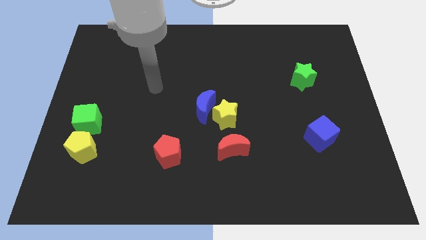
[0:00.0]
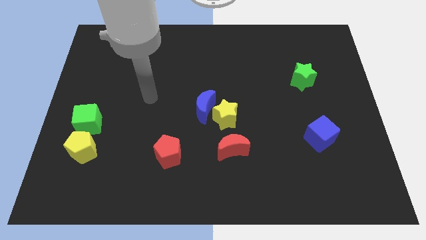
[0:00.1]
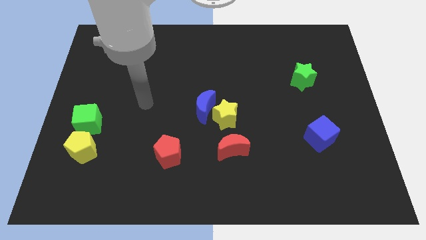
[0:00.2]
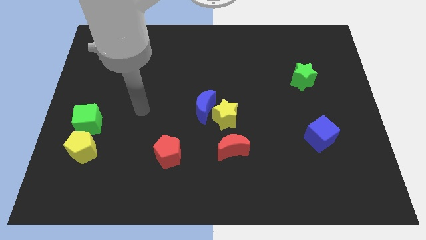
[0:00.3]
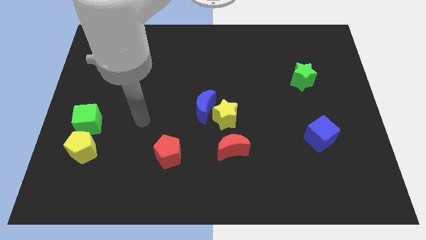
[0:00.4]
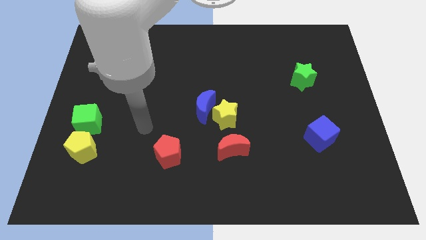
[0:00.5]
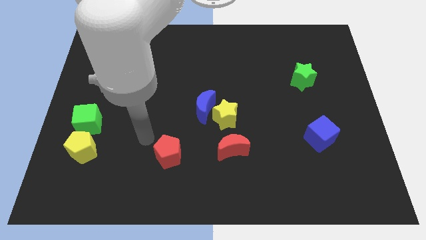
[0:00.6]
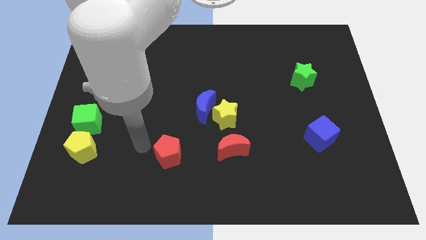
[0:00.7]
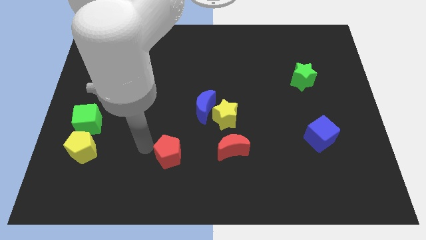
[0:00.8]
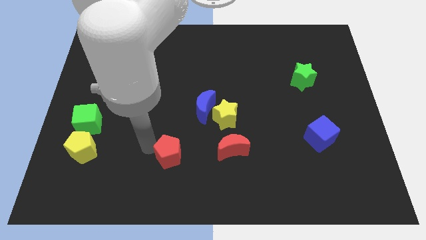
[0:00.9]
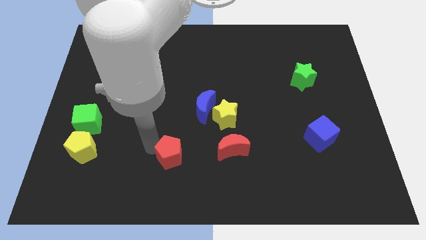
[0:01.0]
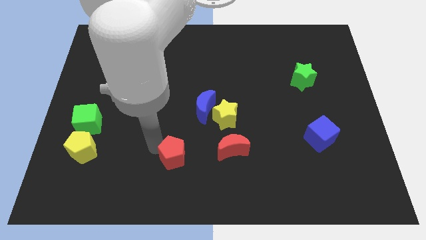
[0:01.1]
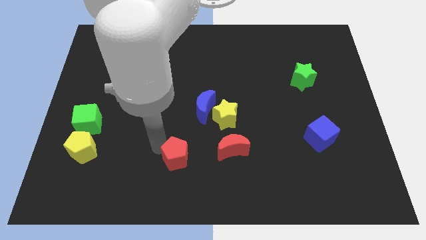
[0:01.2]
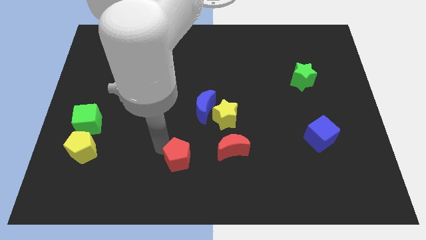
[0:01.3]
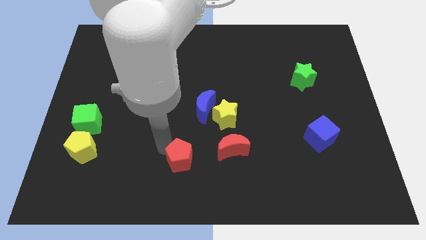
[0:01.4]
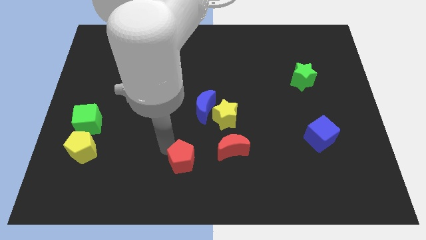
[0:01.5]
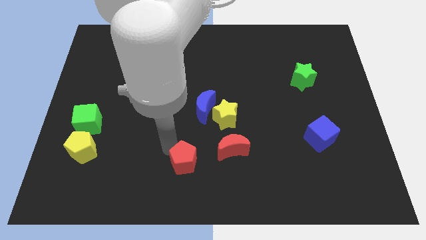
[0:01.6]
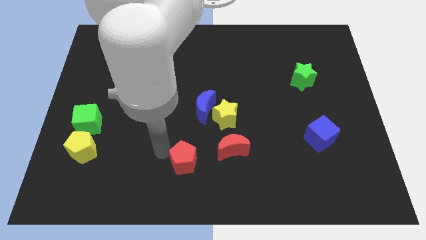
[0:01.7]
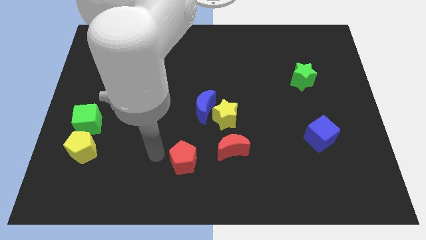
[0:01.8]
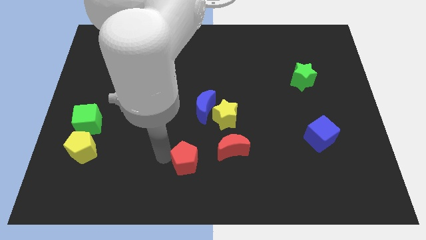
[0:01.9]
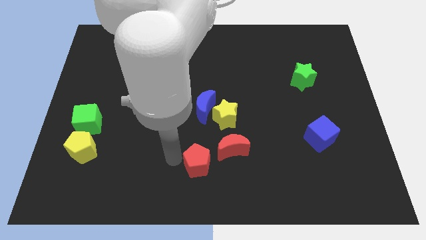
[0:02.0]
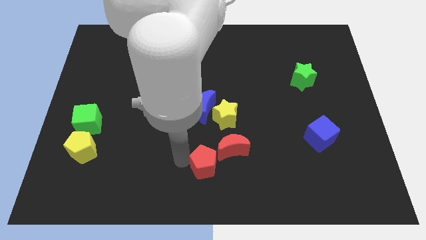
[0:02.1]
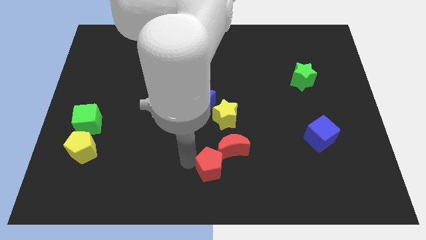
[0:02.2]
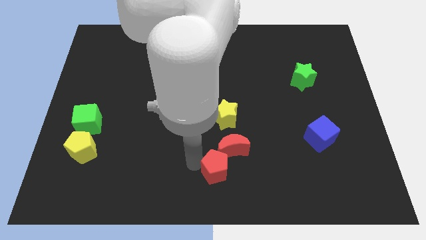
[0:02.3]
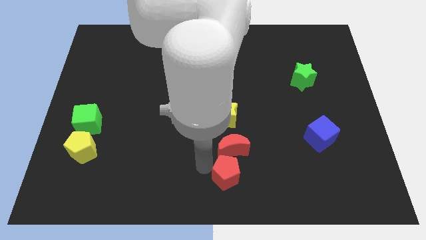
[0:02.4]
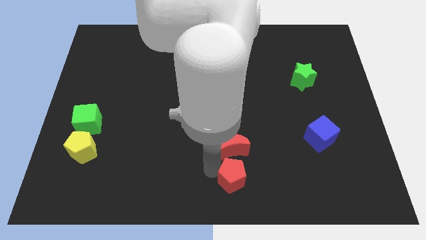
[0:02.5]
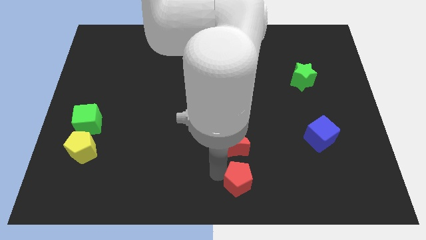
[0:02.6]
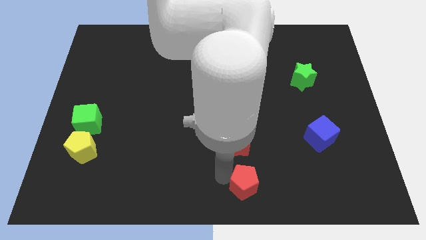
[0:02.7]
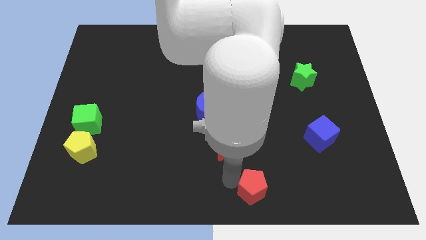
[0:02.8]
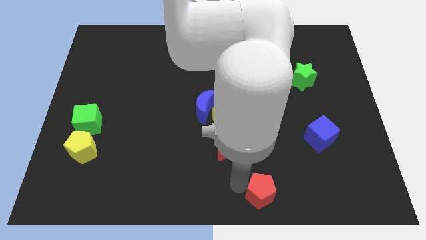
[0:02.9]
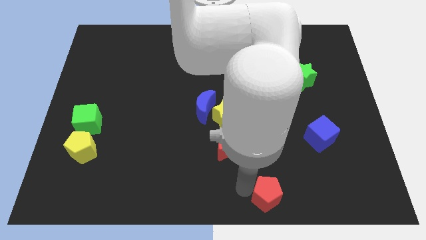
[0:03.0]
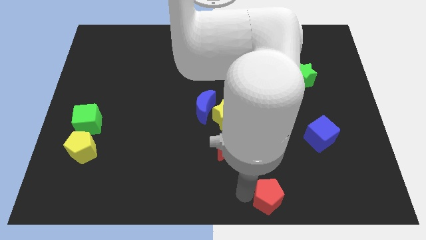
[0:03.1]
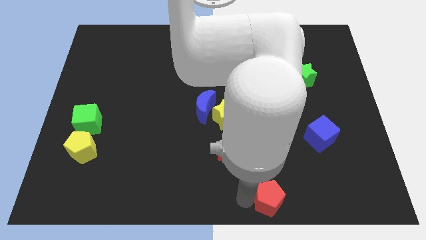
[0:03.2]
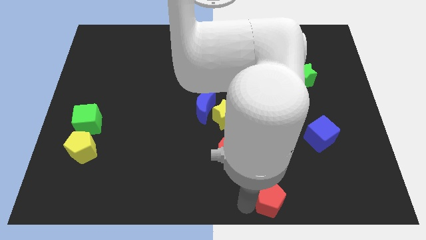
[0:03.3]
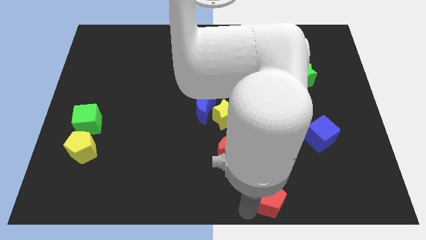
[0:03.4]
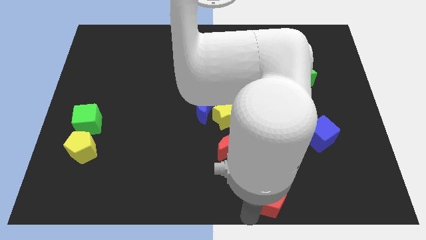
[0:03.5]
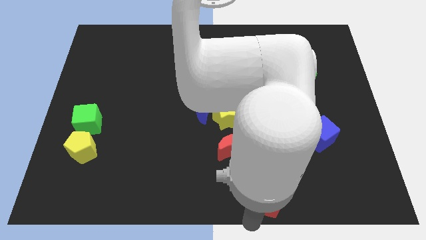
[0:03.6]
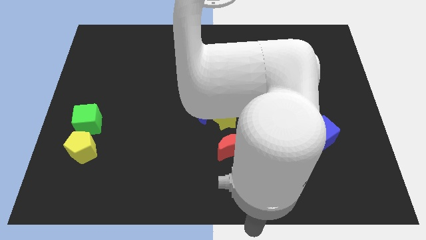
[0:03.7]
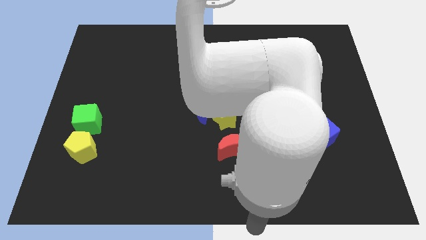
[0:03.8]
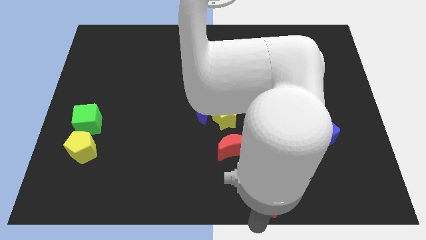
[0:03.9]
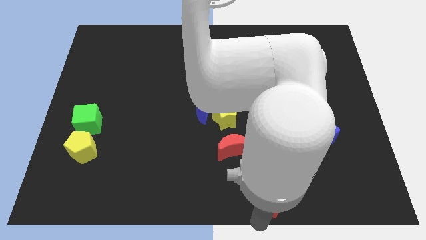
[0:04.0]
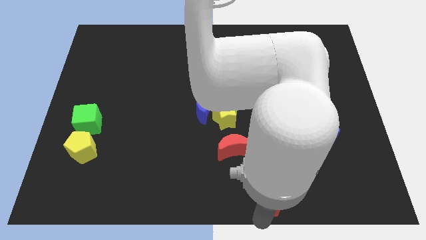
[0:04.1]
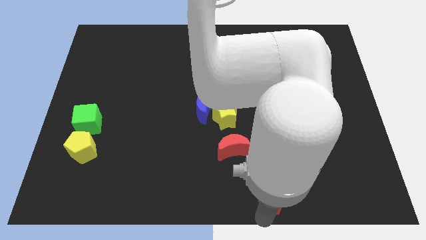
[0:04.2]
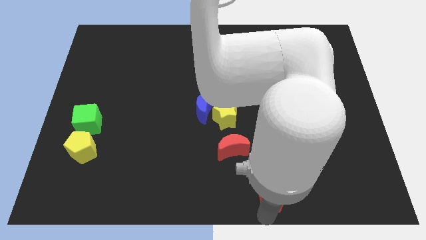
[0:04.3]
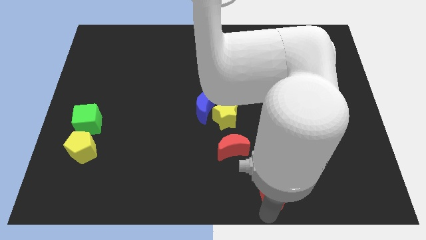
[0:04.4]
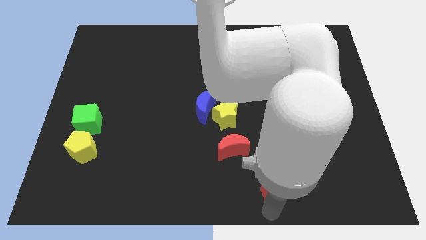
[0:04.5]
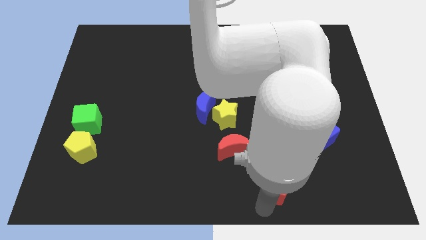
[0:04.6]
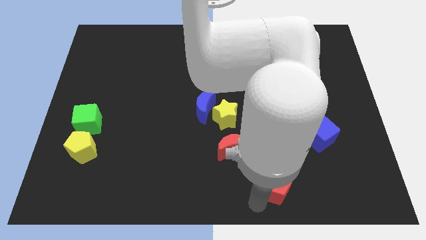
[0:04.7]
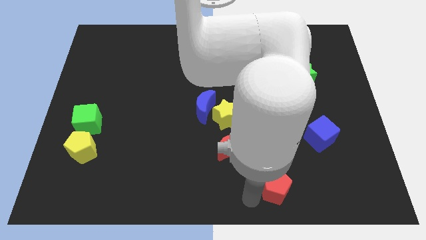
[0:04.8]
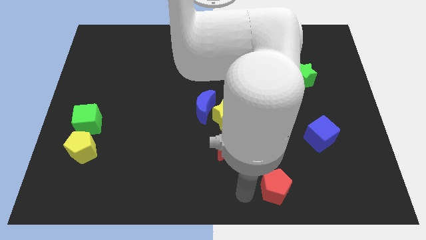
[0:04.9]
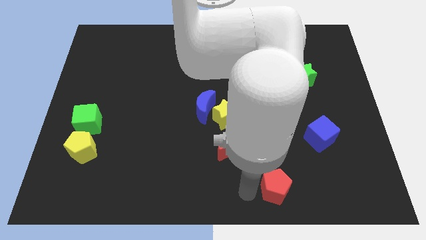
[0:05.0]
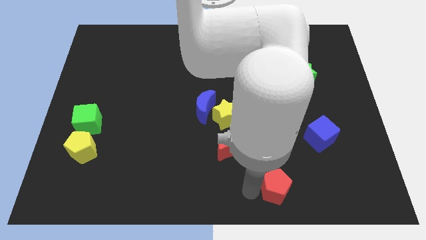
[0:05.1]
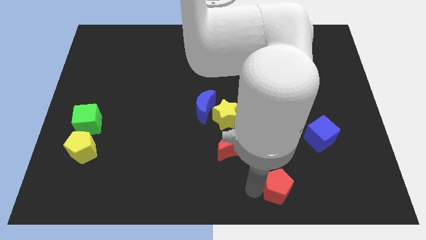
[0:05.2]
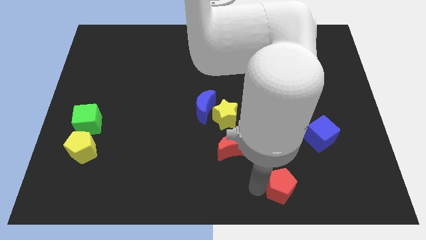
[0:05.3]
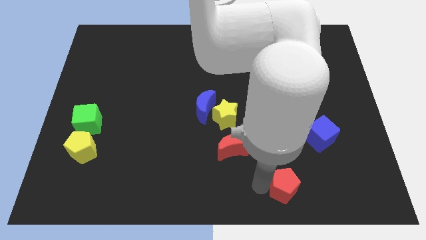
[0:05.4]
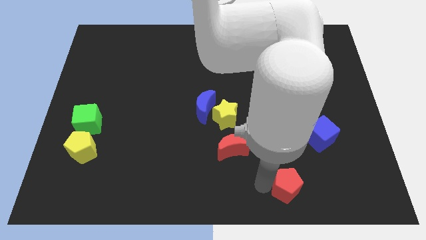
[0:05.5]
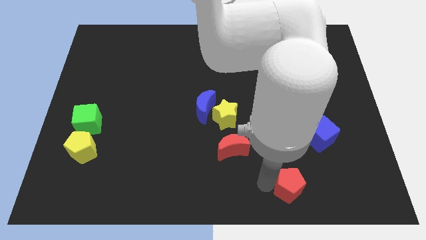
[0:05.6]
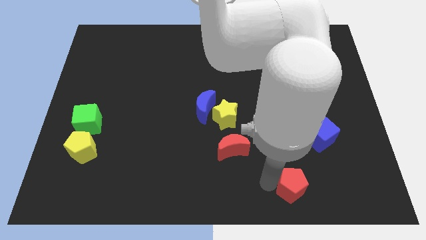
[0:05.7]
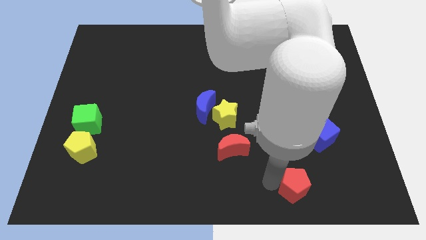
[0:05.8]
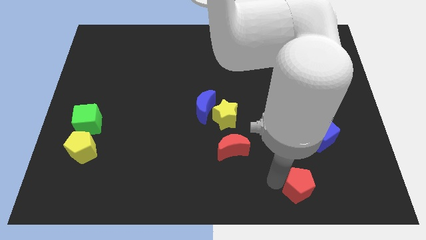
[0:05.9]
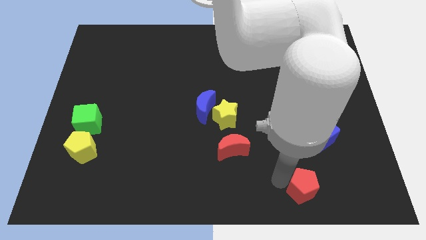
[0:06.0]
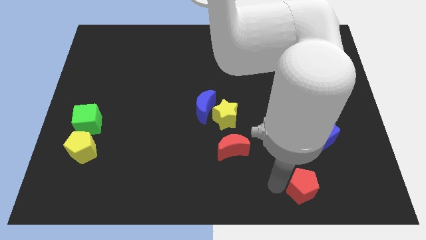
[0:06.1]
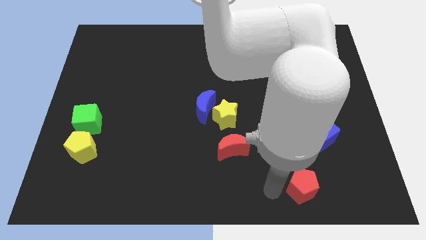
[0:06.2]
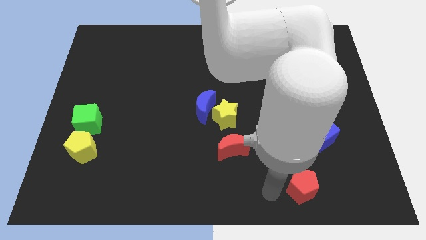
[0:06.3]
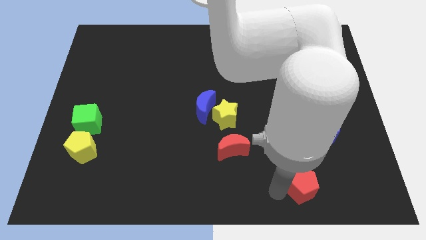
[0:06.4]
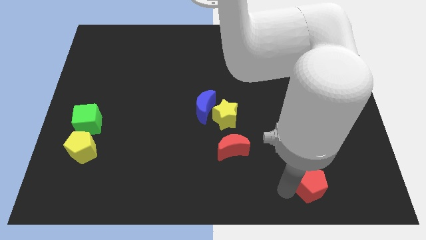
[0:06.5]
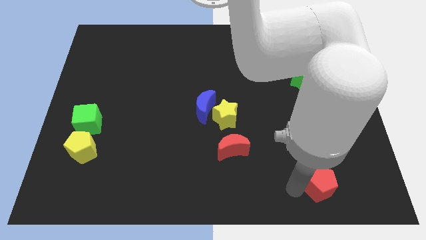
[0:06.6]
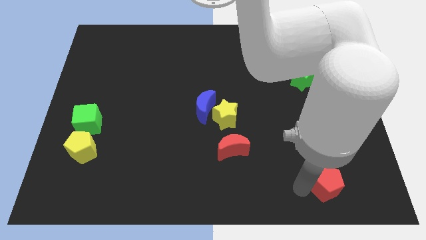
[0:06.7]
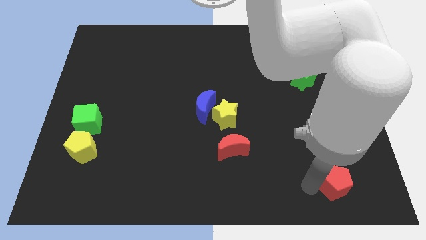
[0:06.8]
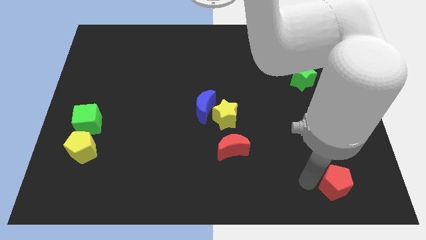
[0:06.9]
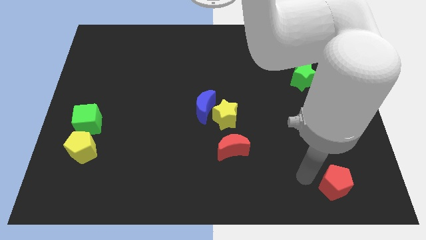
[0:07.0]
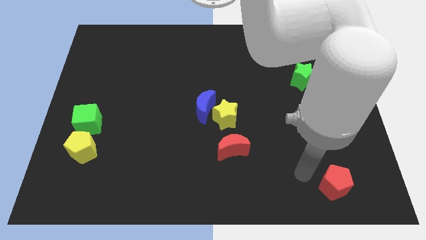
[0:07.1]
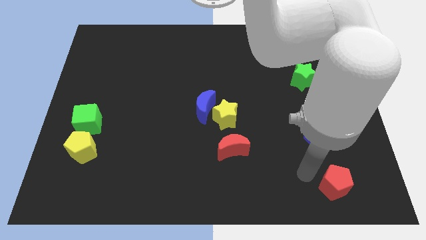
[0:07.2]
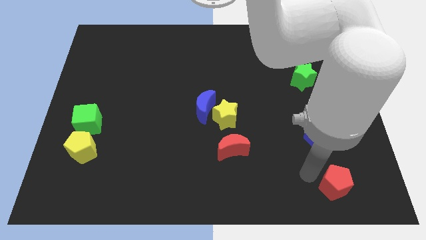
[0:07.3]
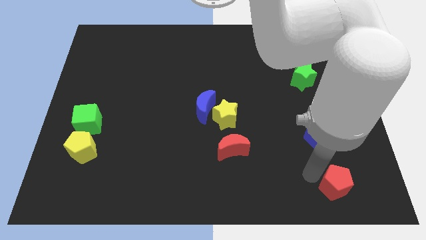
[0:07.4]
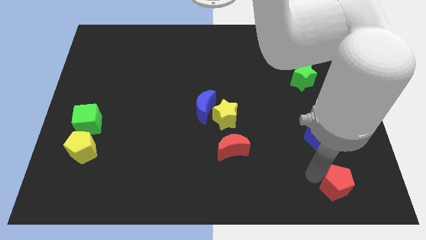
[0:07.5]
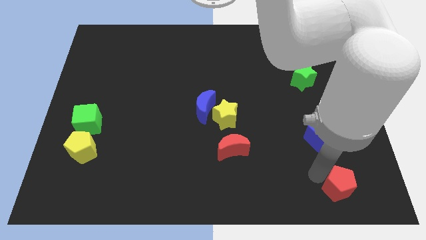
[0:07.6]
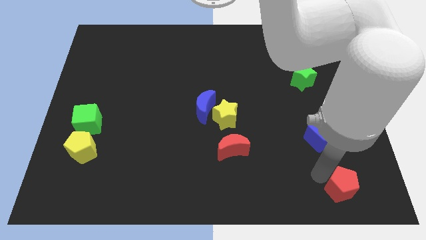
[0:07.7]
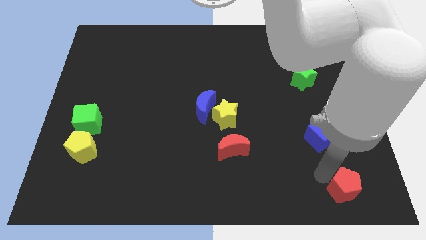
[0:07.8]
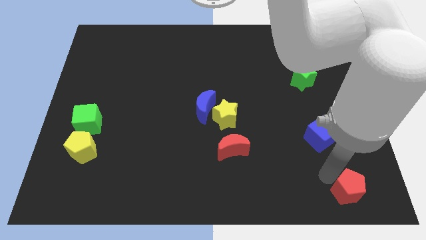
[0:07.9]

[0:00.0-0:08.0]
slide the red pentagon to the bottom right corner
